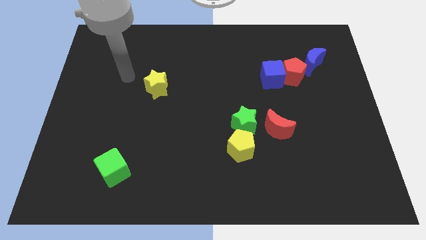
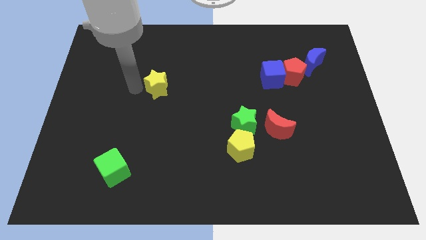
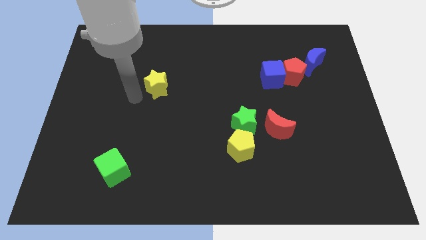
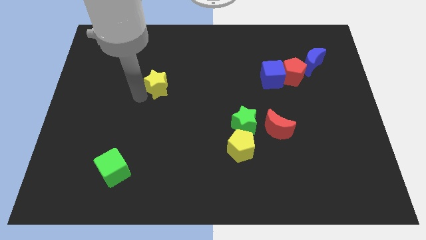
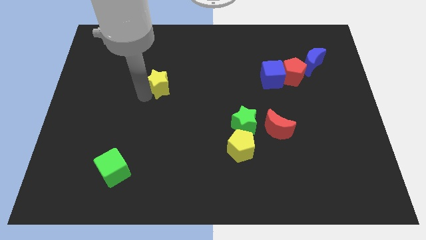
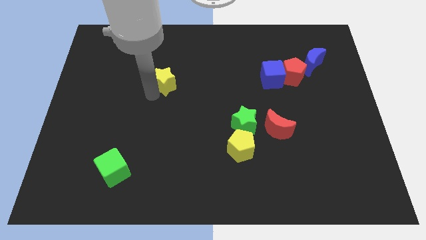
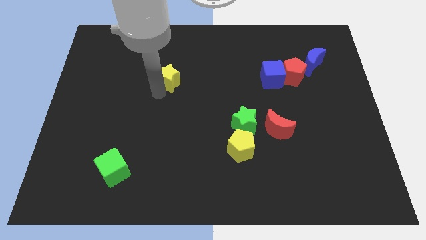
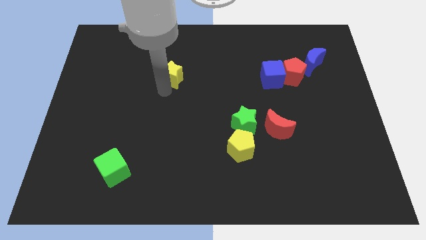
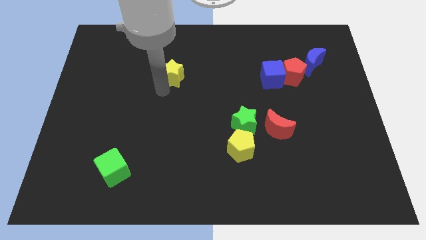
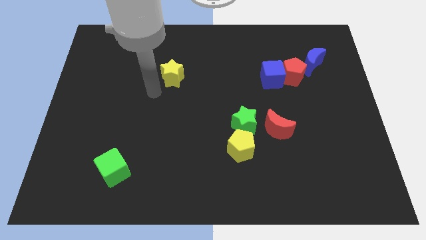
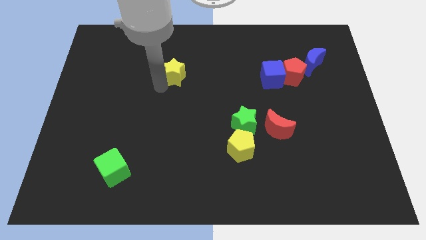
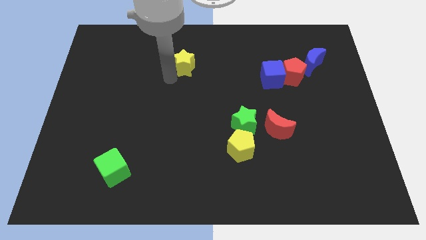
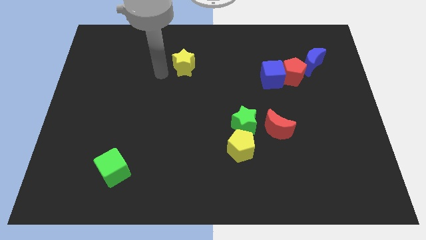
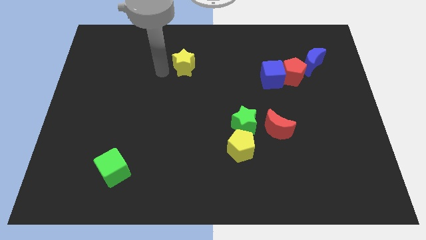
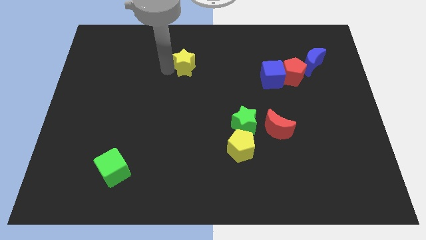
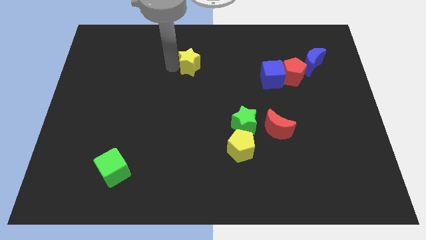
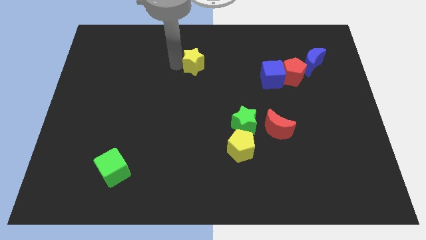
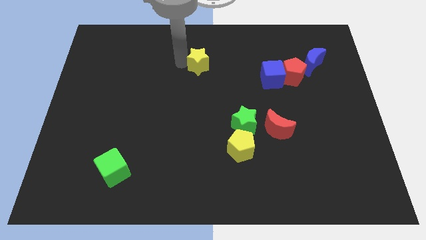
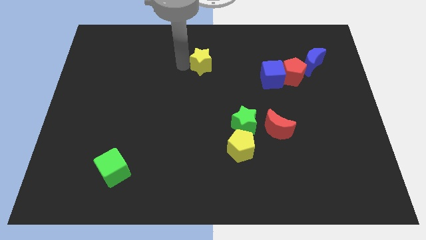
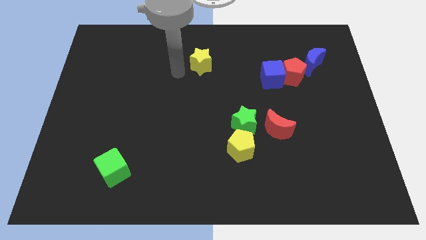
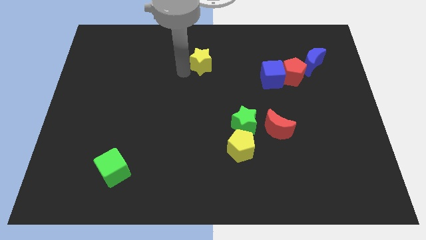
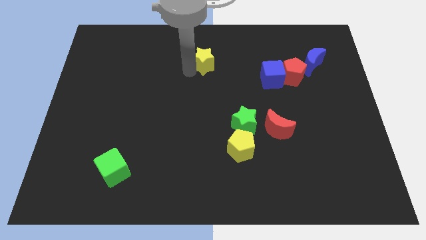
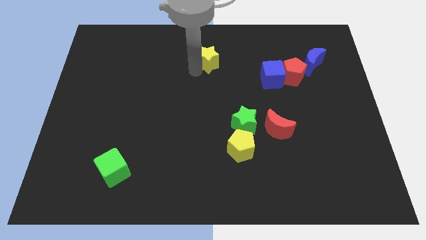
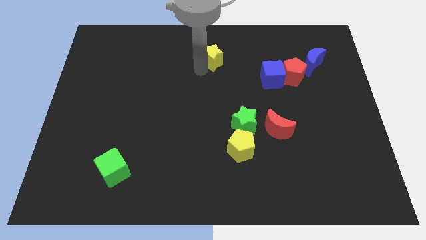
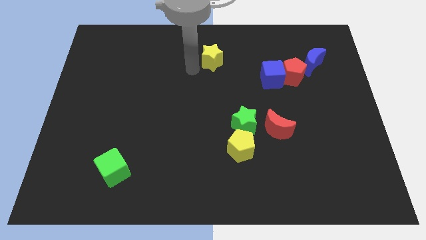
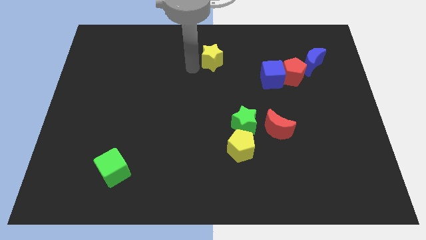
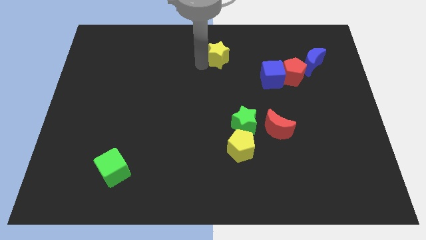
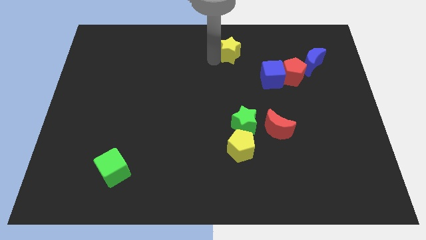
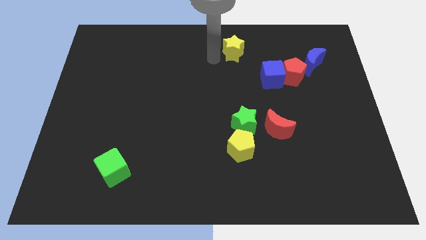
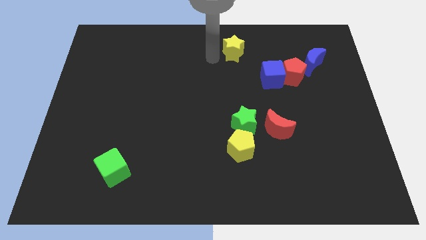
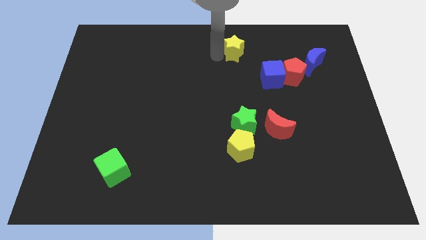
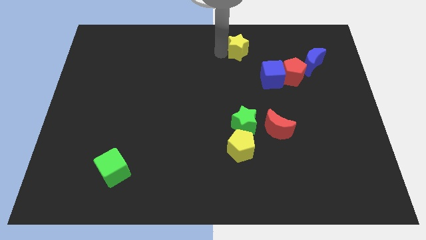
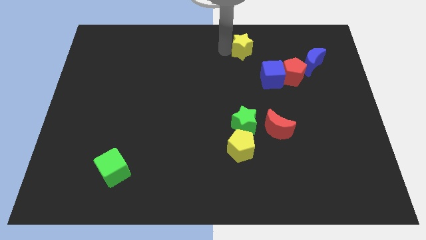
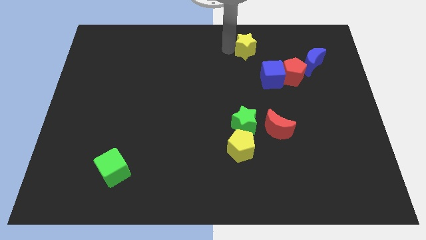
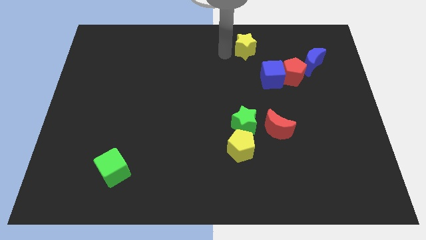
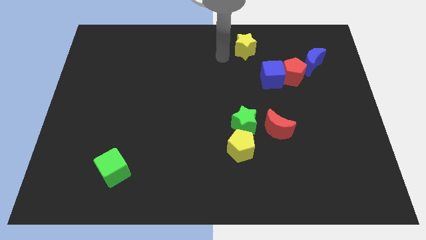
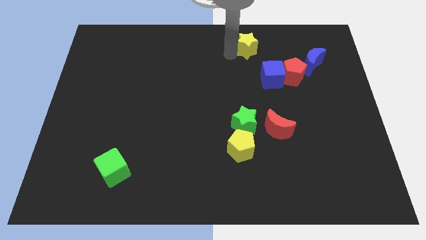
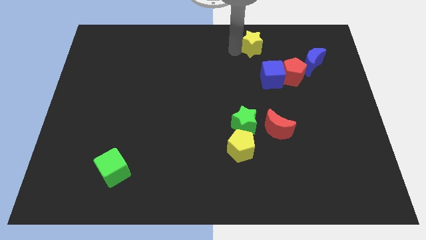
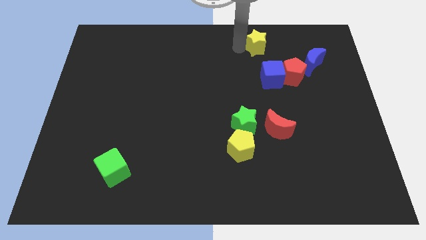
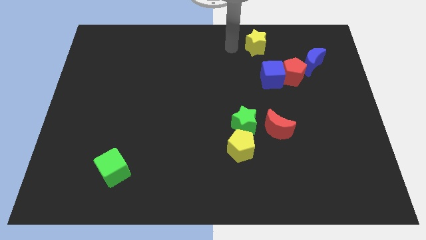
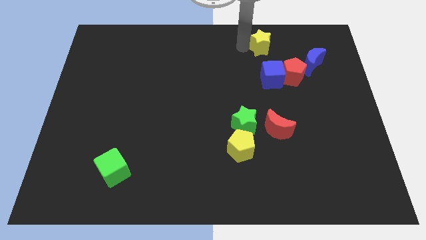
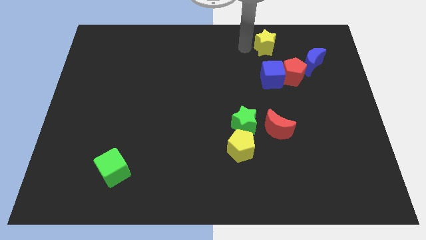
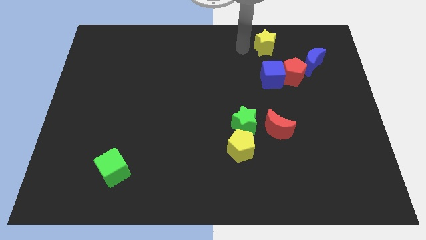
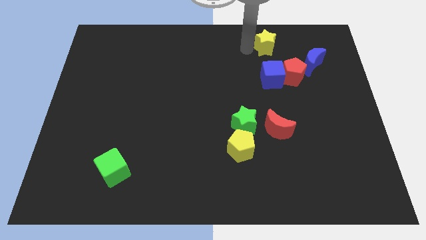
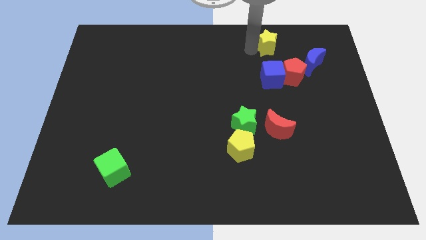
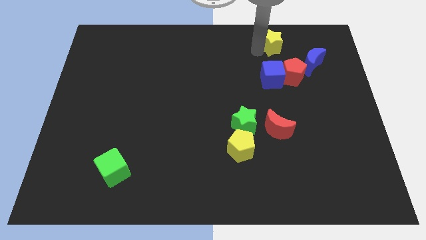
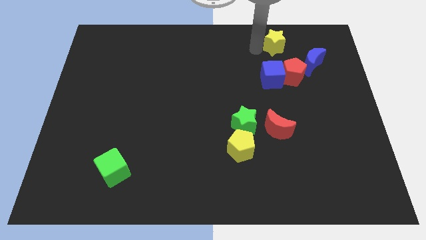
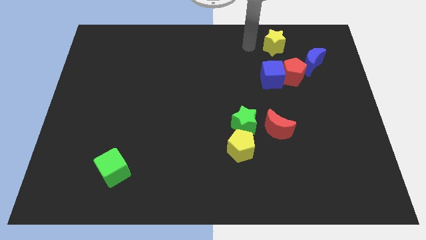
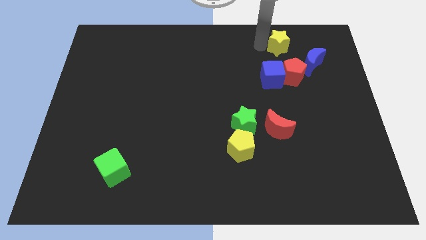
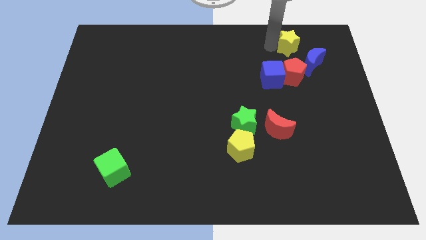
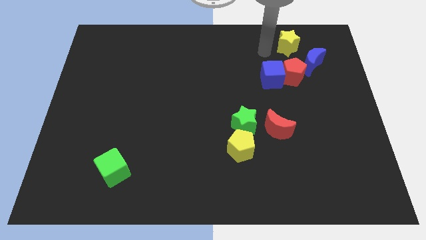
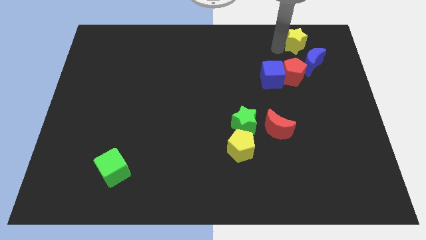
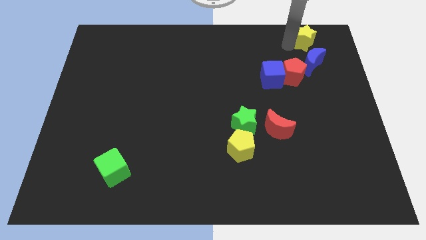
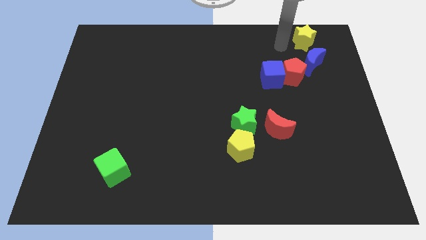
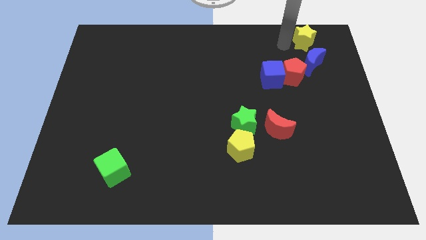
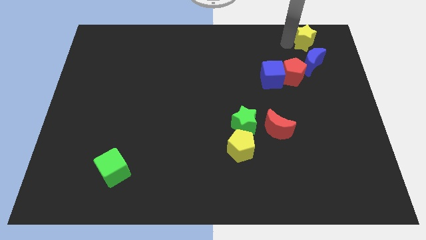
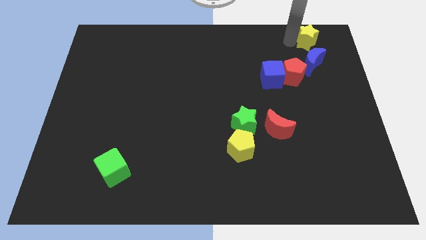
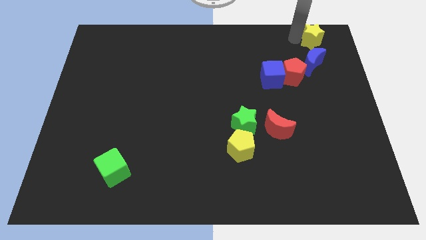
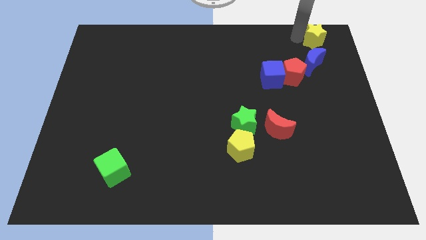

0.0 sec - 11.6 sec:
put the yellow star to the top right
